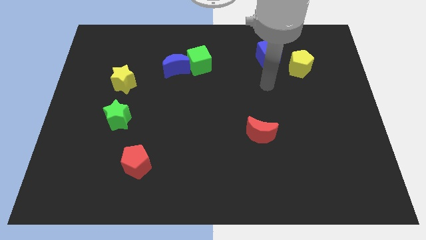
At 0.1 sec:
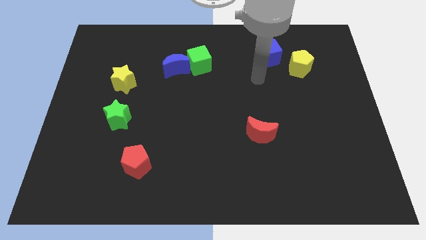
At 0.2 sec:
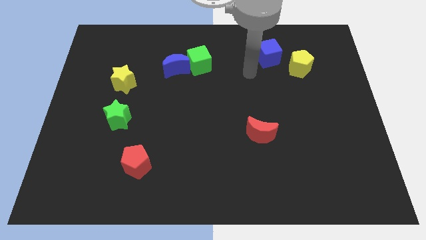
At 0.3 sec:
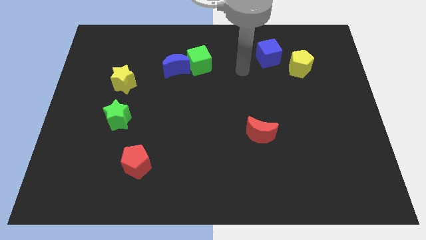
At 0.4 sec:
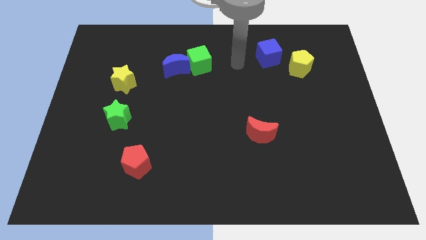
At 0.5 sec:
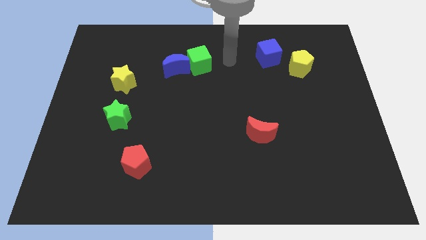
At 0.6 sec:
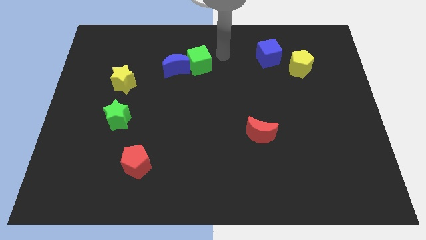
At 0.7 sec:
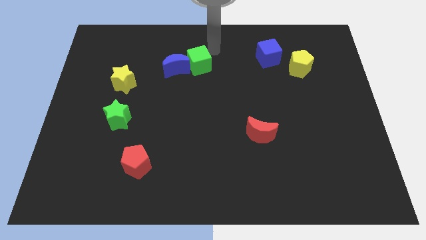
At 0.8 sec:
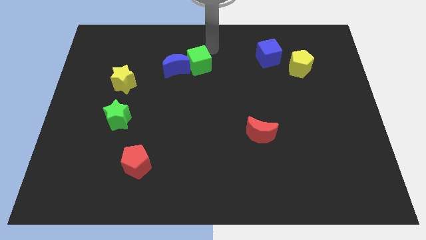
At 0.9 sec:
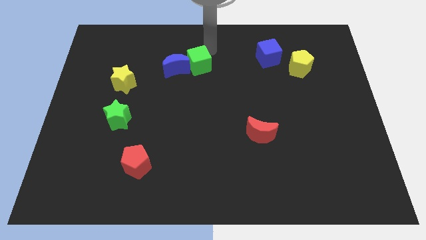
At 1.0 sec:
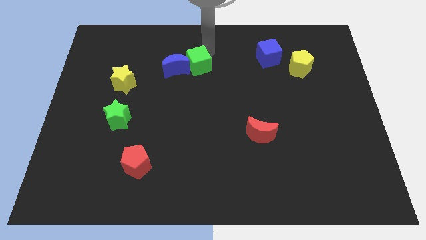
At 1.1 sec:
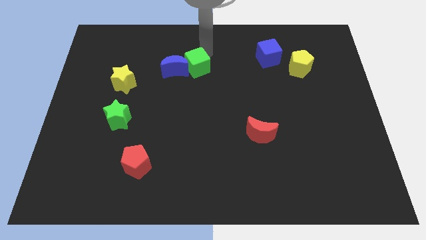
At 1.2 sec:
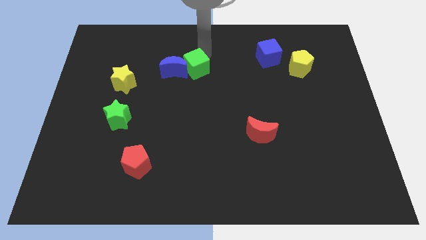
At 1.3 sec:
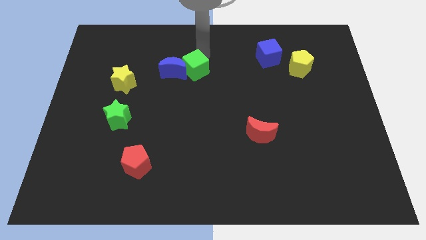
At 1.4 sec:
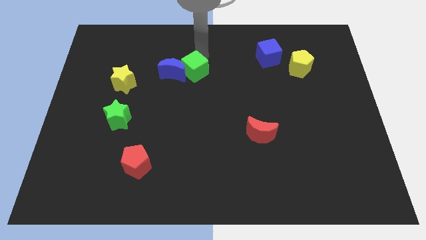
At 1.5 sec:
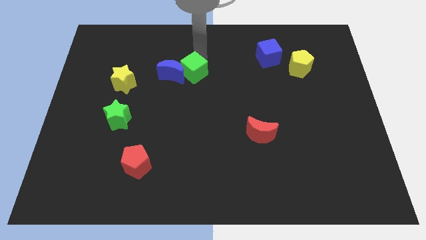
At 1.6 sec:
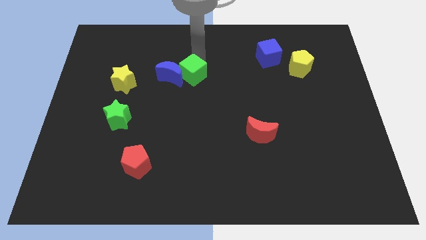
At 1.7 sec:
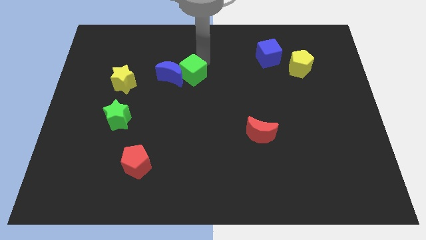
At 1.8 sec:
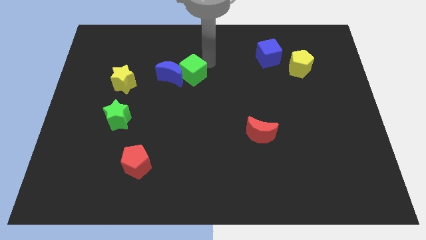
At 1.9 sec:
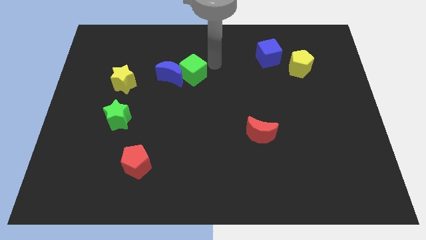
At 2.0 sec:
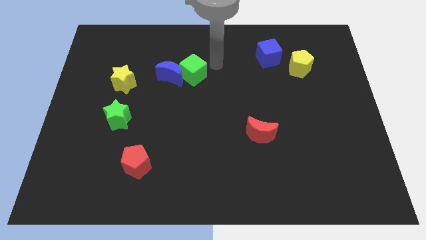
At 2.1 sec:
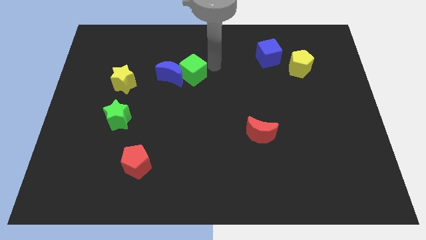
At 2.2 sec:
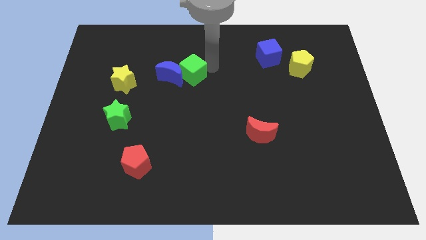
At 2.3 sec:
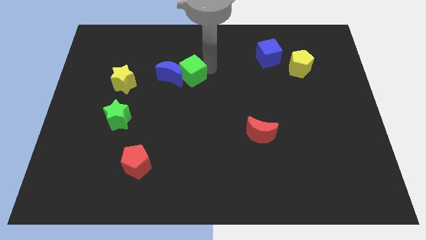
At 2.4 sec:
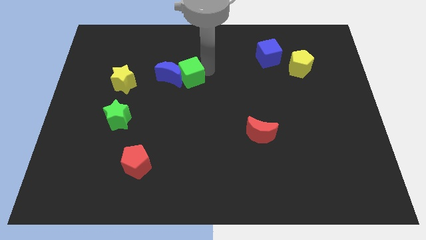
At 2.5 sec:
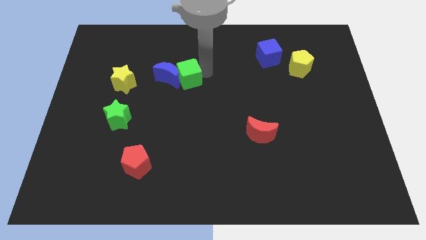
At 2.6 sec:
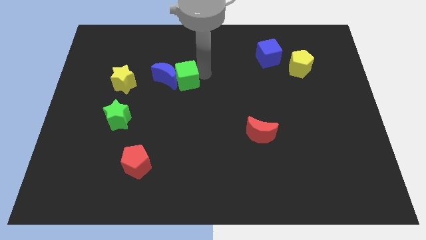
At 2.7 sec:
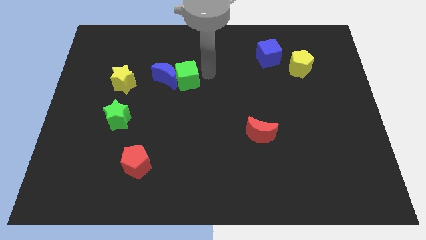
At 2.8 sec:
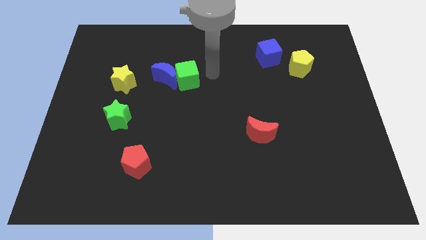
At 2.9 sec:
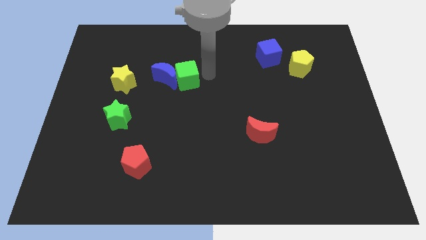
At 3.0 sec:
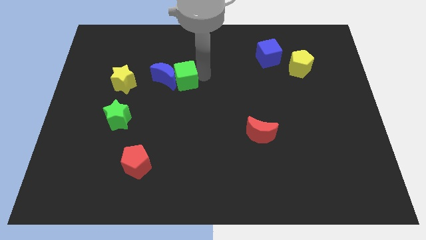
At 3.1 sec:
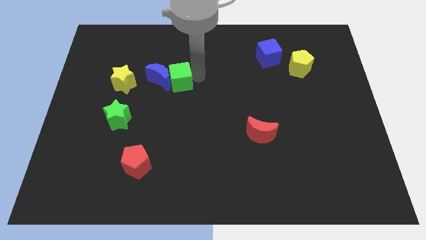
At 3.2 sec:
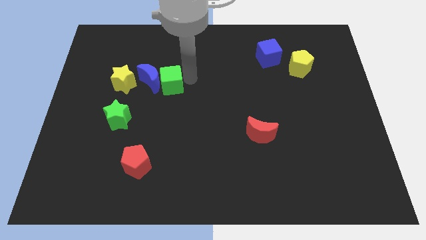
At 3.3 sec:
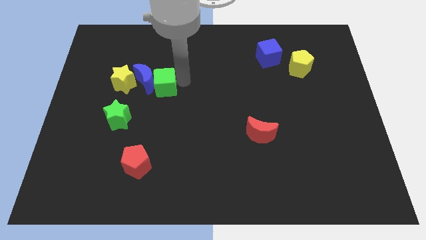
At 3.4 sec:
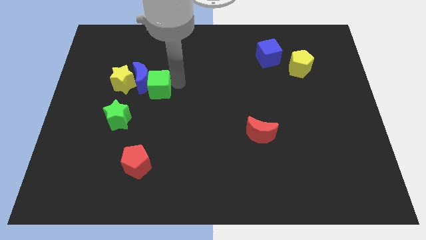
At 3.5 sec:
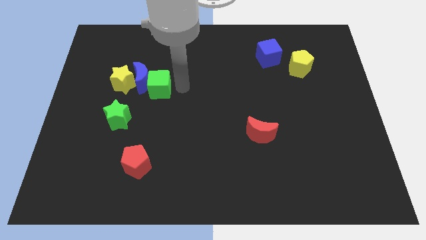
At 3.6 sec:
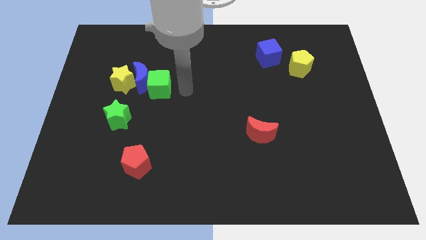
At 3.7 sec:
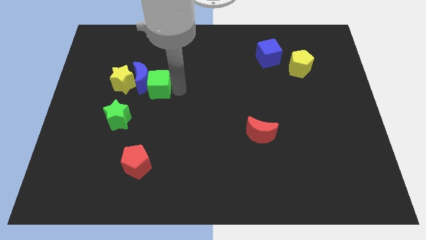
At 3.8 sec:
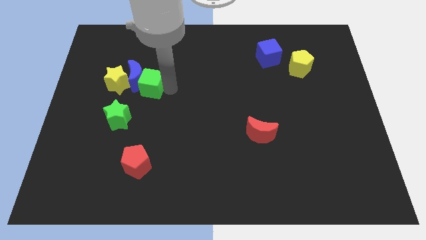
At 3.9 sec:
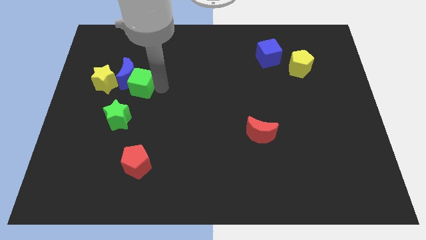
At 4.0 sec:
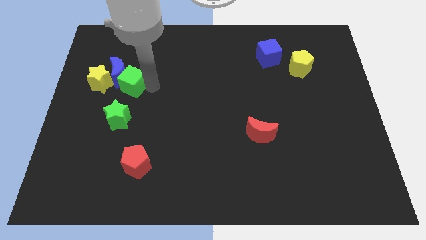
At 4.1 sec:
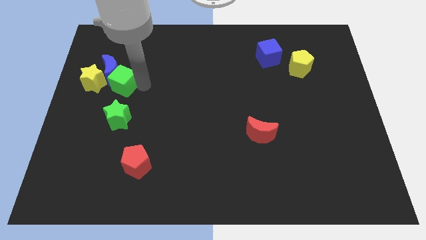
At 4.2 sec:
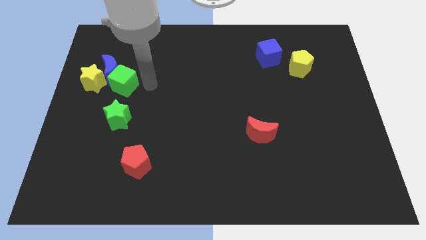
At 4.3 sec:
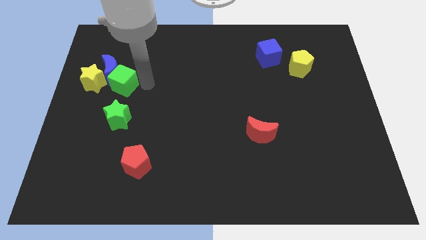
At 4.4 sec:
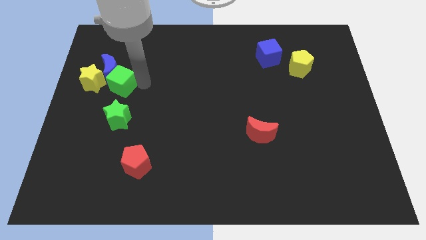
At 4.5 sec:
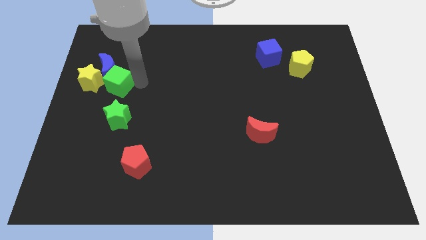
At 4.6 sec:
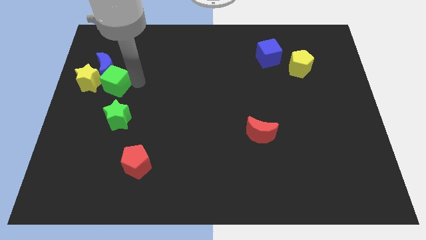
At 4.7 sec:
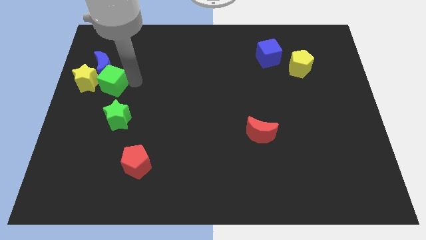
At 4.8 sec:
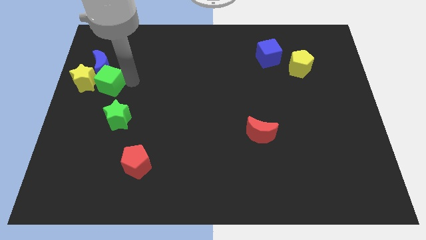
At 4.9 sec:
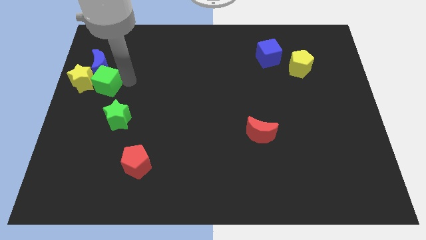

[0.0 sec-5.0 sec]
put the green cube close to the yellow star

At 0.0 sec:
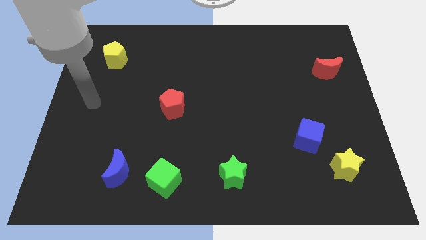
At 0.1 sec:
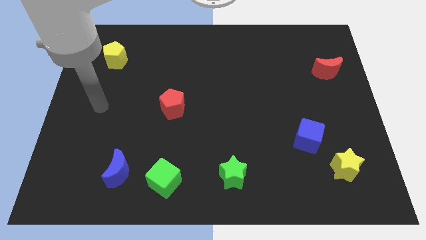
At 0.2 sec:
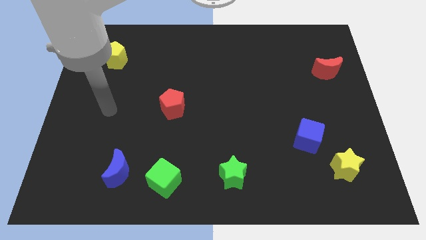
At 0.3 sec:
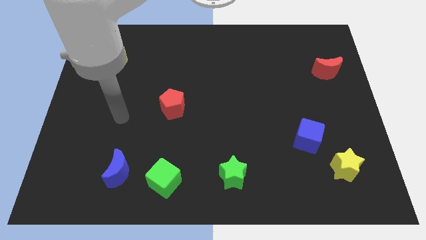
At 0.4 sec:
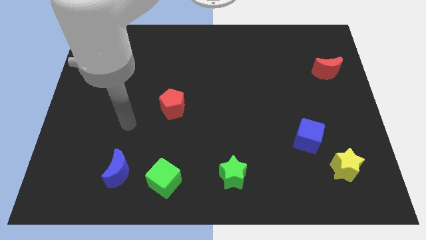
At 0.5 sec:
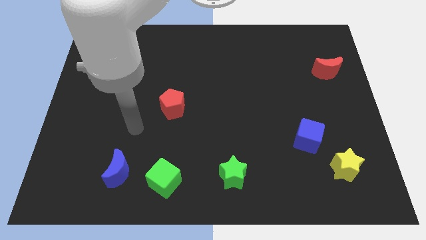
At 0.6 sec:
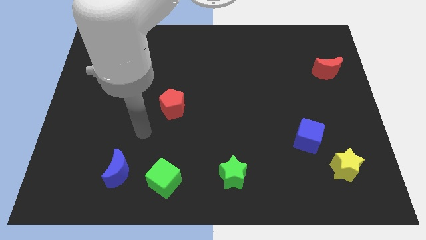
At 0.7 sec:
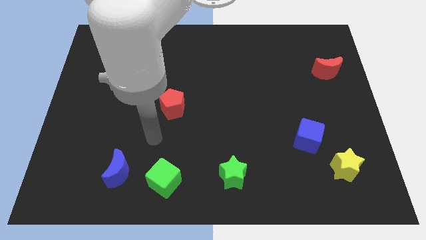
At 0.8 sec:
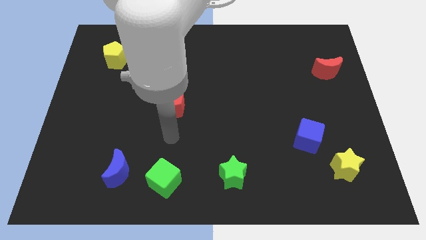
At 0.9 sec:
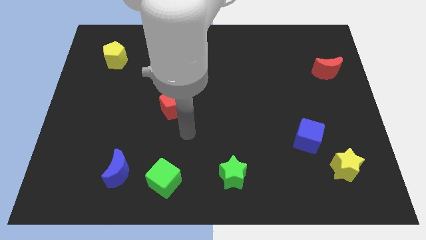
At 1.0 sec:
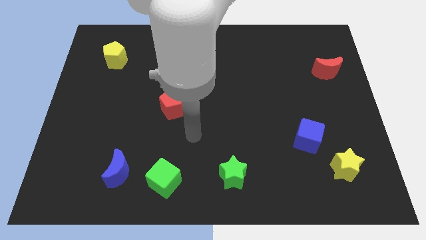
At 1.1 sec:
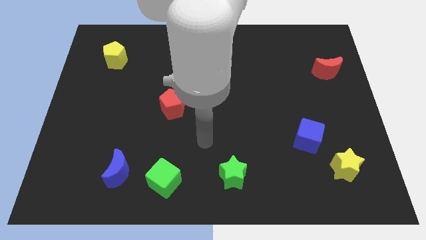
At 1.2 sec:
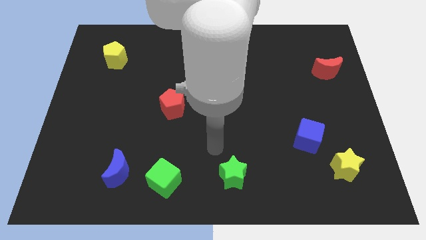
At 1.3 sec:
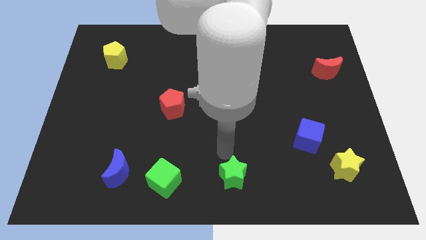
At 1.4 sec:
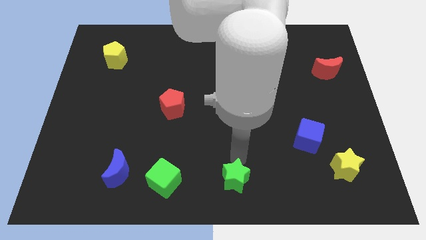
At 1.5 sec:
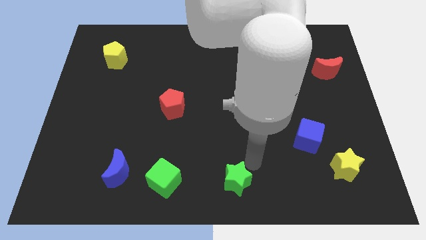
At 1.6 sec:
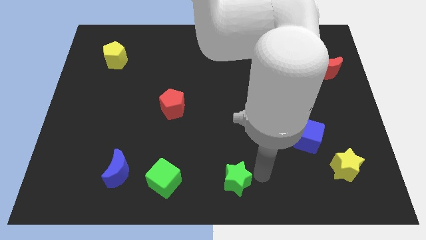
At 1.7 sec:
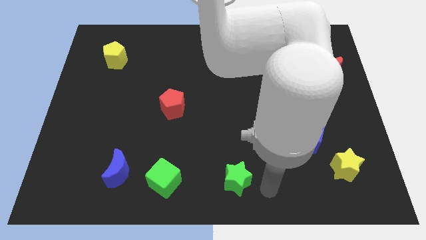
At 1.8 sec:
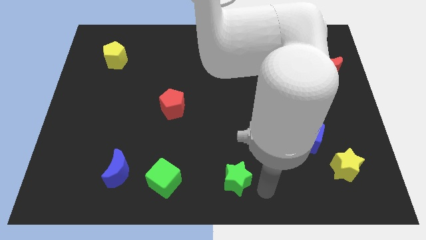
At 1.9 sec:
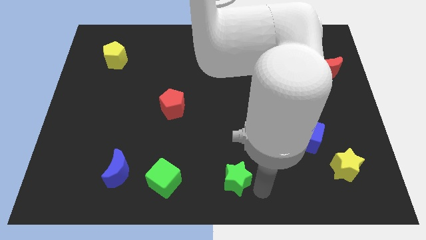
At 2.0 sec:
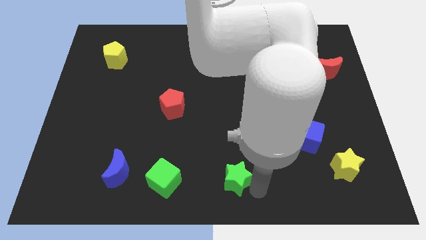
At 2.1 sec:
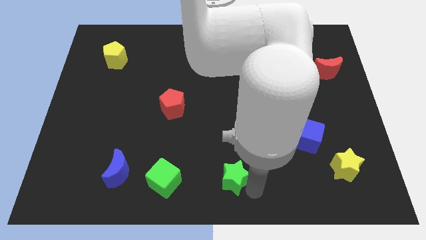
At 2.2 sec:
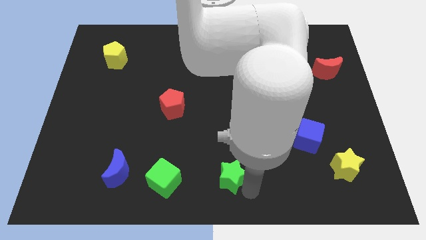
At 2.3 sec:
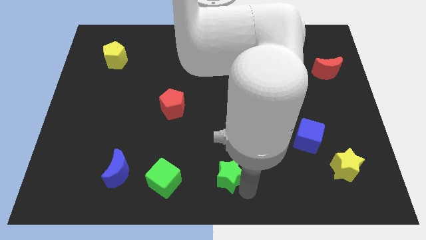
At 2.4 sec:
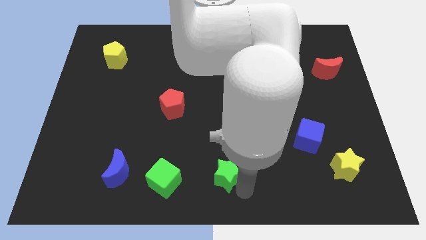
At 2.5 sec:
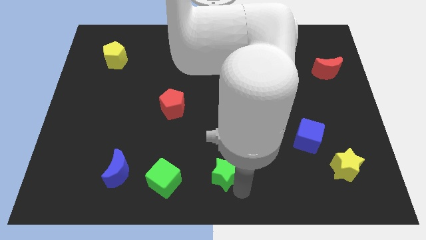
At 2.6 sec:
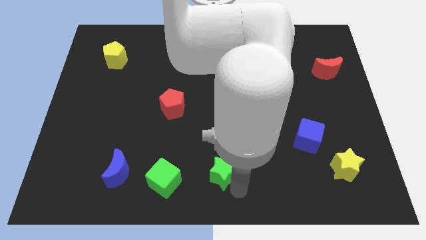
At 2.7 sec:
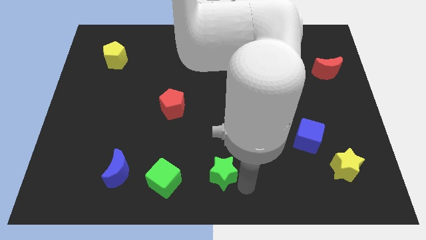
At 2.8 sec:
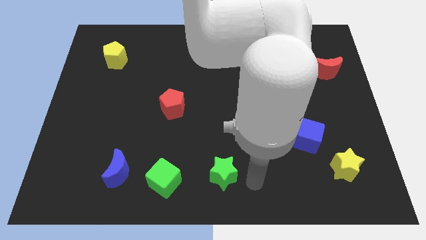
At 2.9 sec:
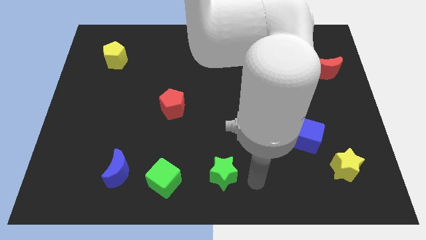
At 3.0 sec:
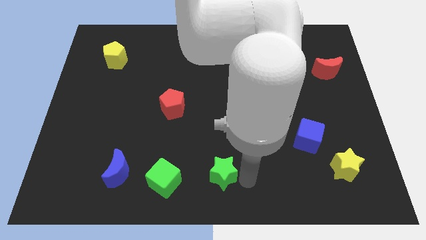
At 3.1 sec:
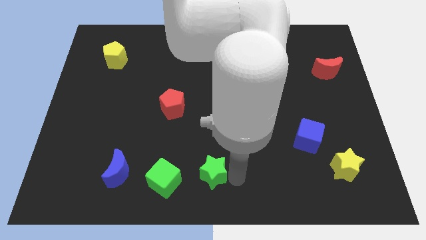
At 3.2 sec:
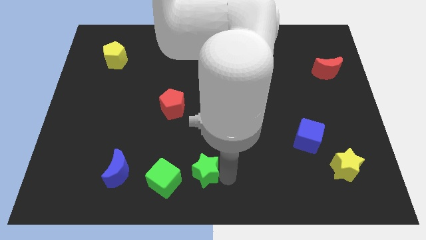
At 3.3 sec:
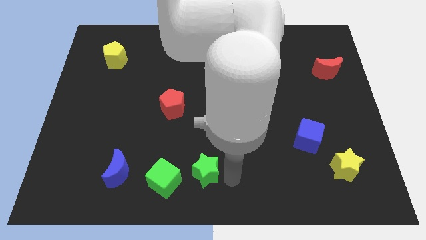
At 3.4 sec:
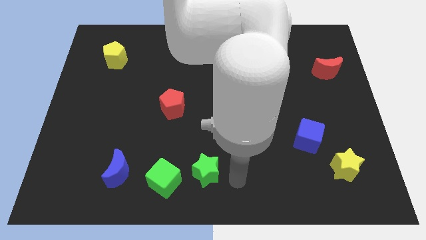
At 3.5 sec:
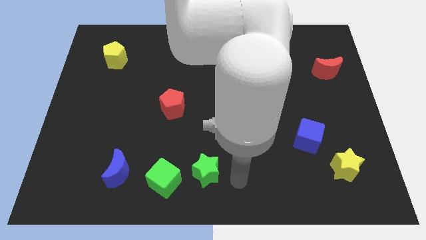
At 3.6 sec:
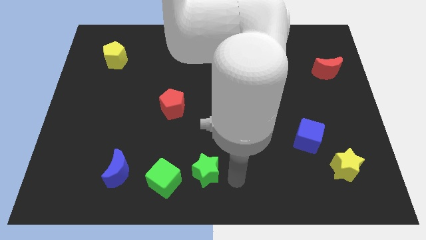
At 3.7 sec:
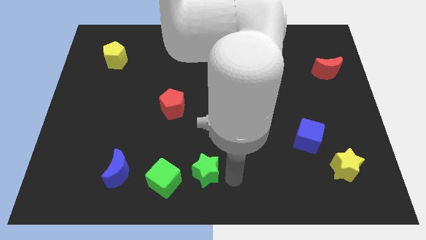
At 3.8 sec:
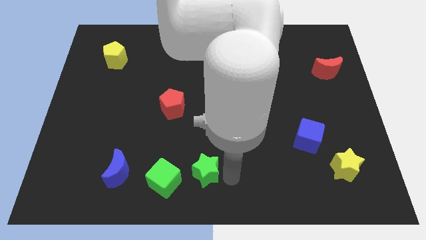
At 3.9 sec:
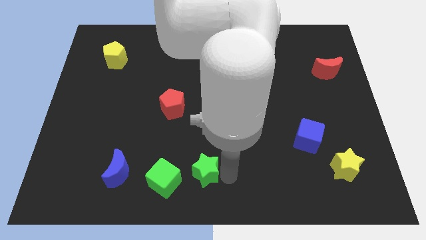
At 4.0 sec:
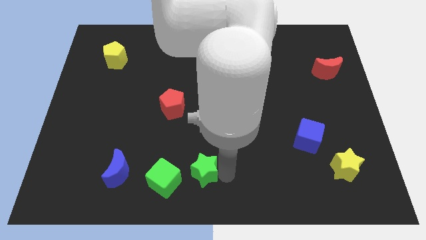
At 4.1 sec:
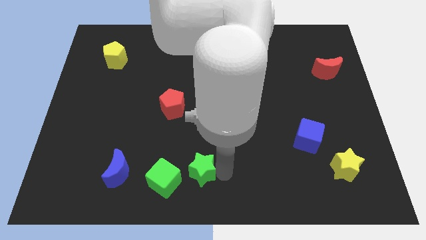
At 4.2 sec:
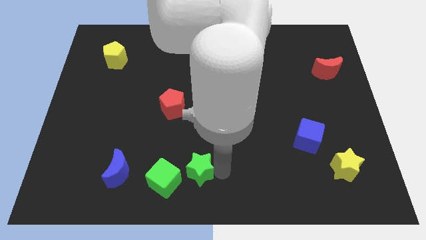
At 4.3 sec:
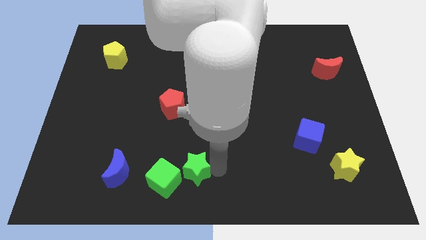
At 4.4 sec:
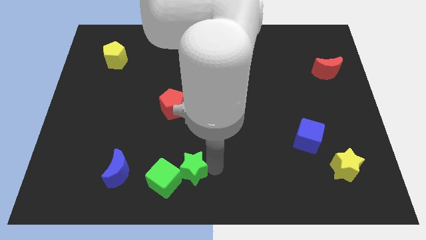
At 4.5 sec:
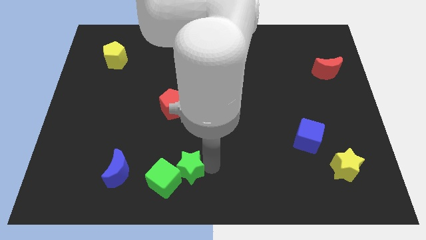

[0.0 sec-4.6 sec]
put the green star towards the green cube
